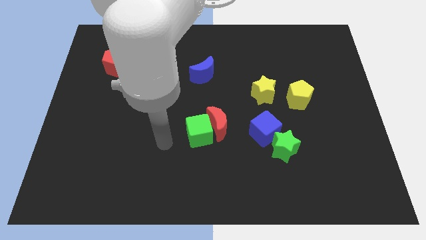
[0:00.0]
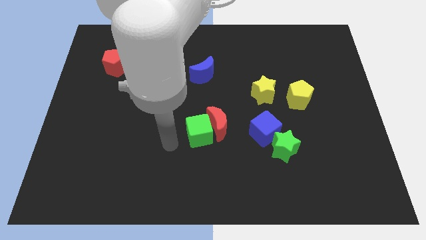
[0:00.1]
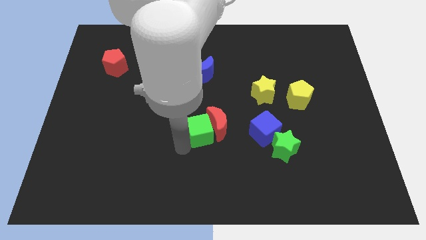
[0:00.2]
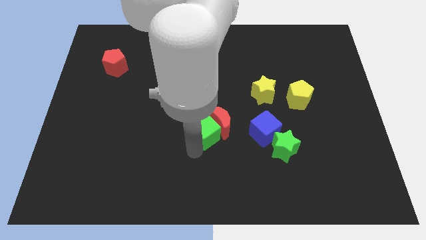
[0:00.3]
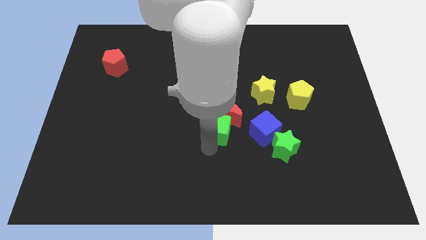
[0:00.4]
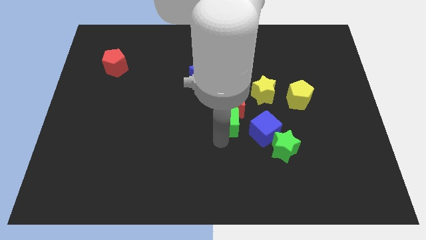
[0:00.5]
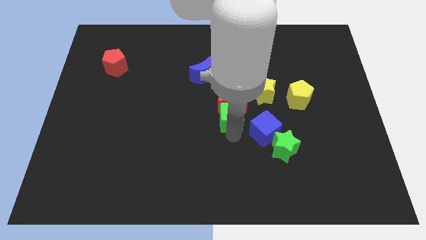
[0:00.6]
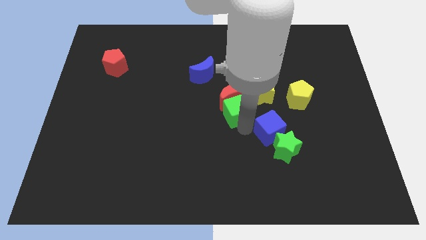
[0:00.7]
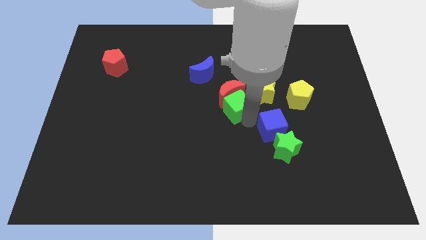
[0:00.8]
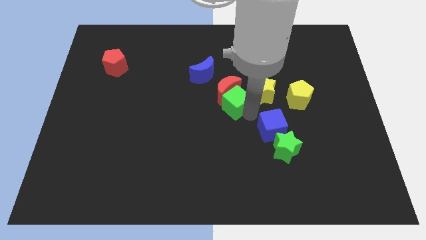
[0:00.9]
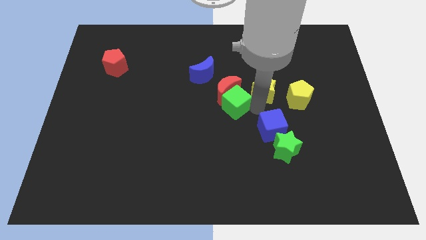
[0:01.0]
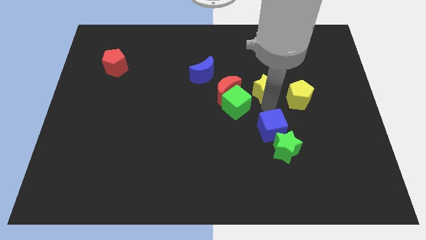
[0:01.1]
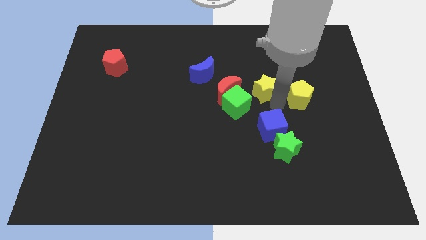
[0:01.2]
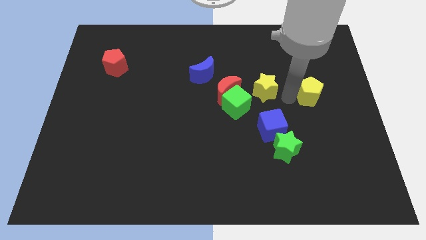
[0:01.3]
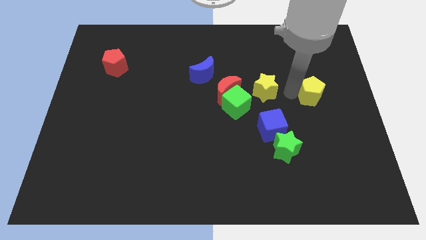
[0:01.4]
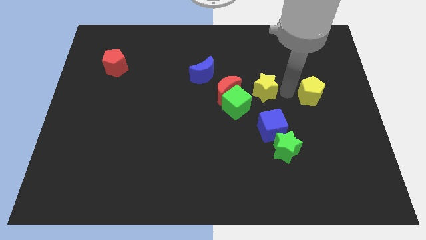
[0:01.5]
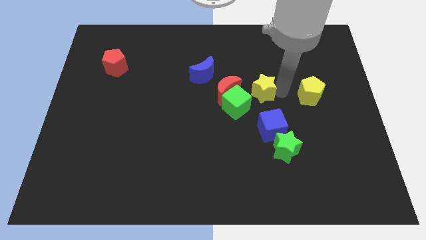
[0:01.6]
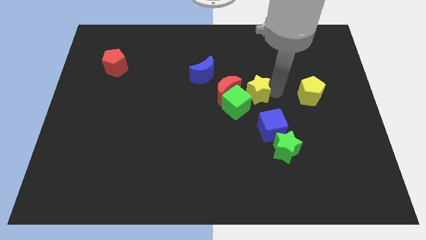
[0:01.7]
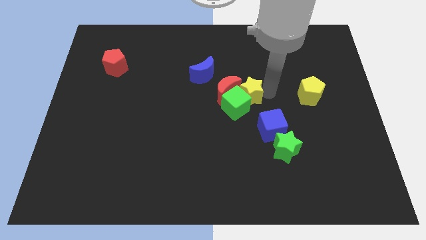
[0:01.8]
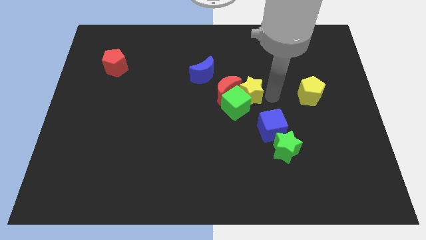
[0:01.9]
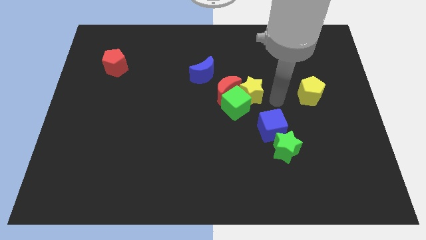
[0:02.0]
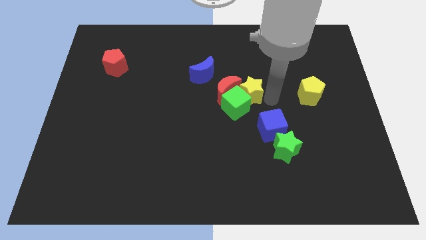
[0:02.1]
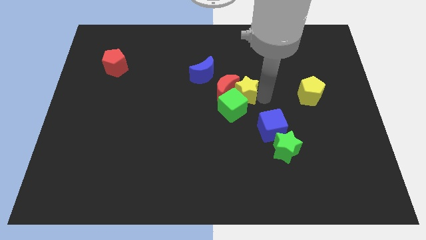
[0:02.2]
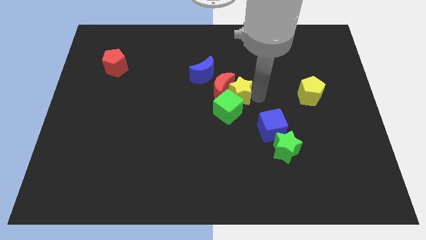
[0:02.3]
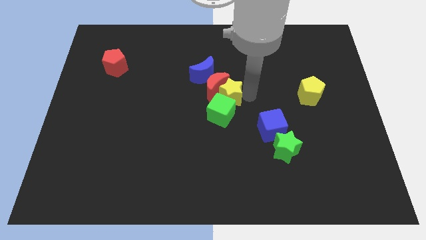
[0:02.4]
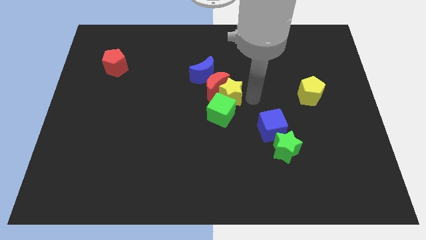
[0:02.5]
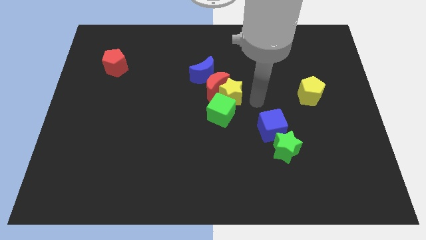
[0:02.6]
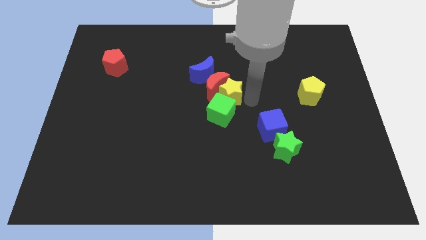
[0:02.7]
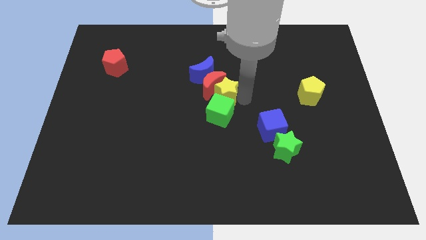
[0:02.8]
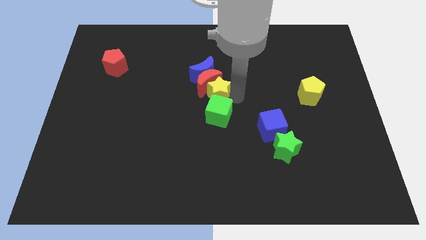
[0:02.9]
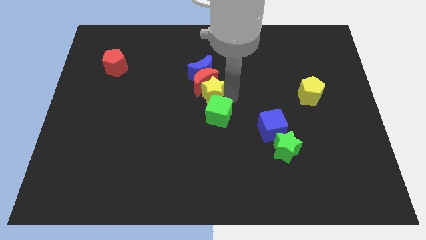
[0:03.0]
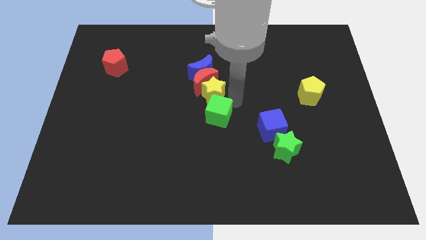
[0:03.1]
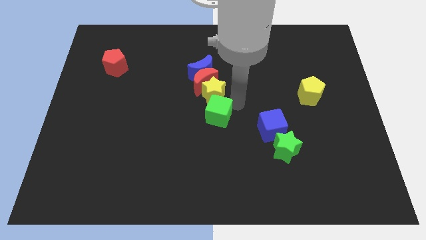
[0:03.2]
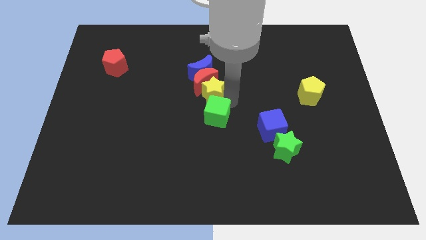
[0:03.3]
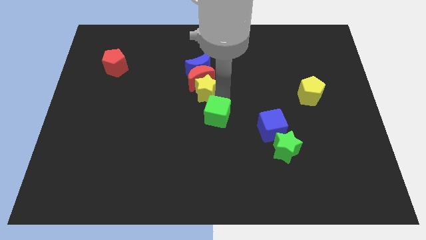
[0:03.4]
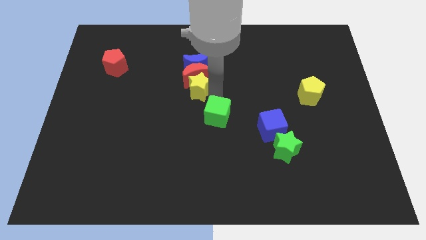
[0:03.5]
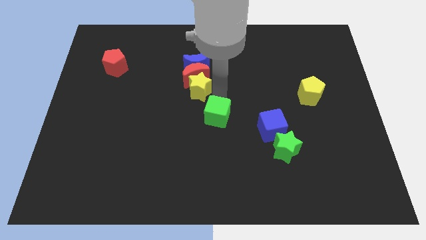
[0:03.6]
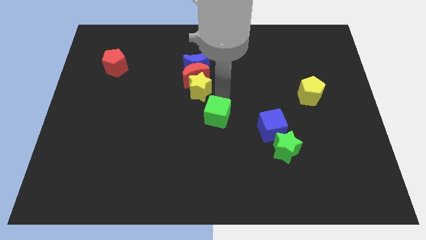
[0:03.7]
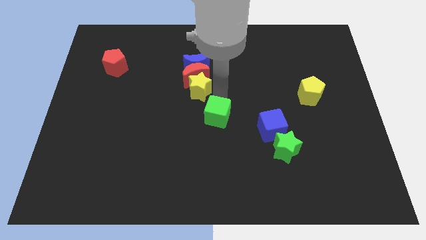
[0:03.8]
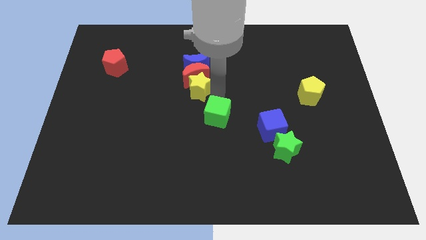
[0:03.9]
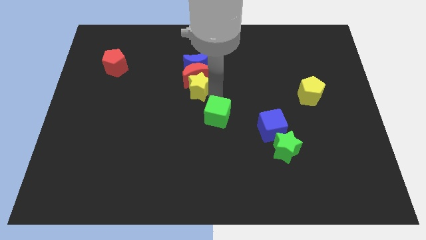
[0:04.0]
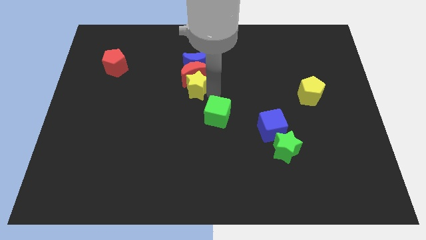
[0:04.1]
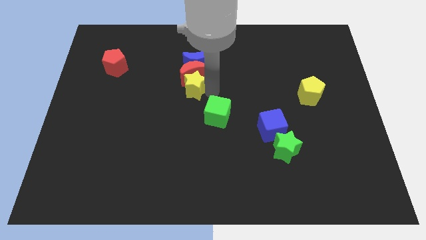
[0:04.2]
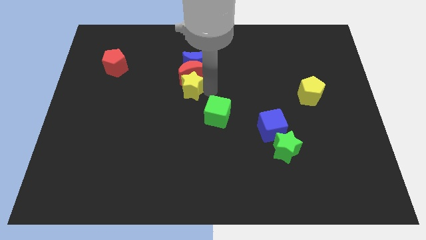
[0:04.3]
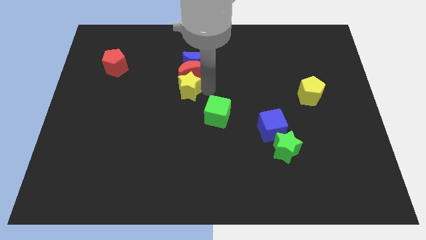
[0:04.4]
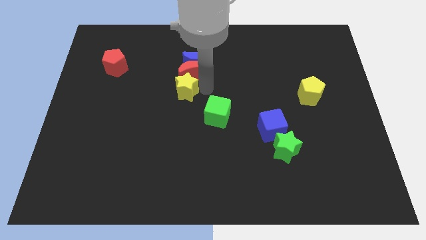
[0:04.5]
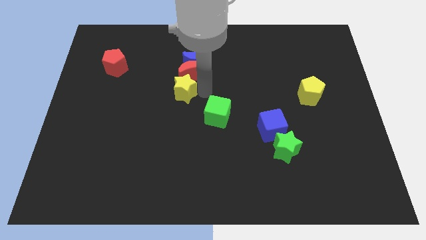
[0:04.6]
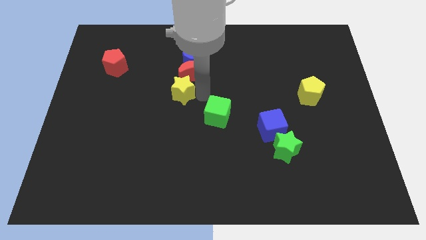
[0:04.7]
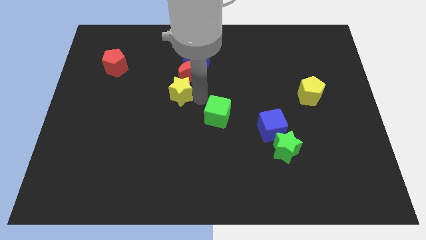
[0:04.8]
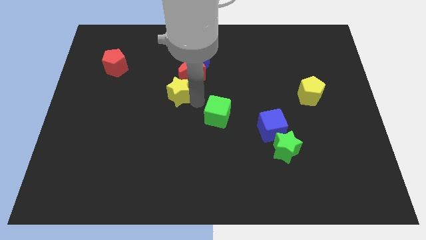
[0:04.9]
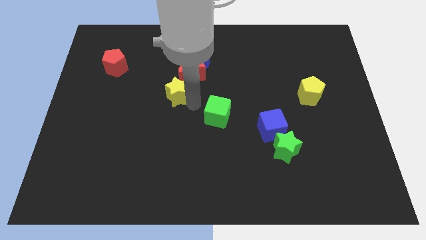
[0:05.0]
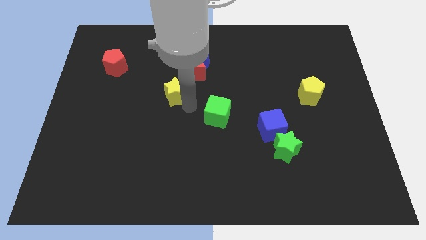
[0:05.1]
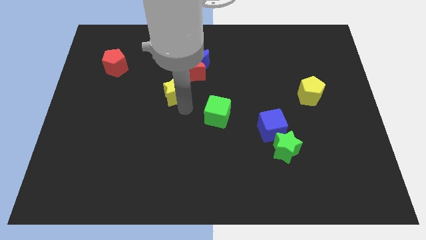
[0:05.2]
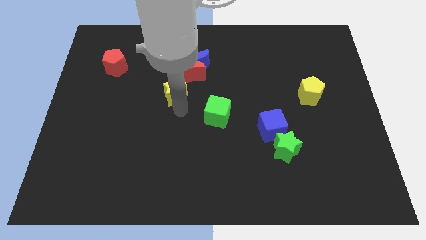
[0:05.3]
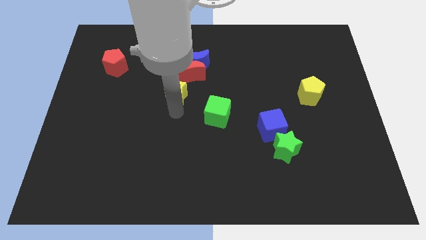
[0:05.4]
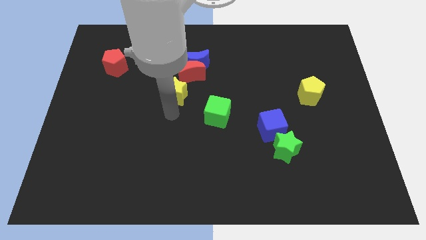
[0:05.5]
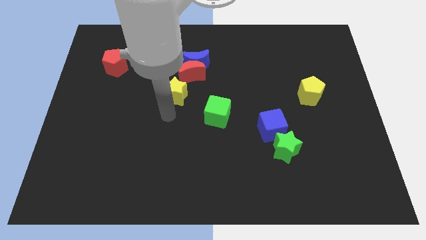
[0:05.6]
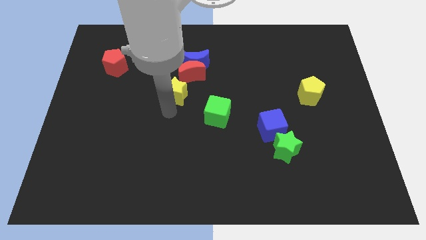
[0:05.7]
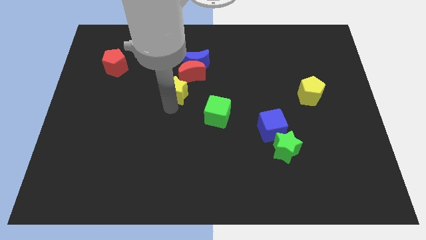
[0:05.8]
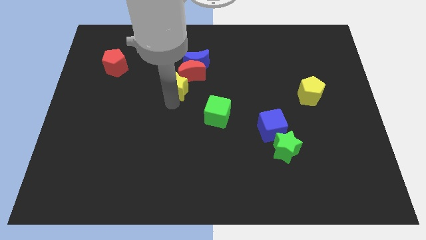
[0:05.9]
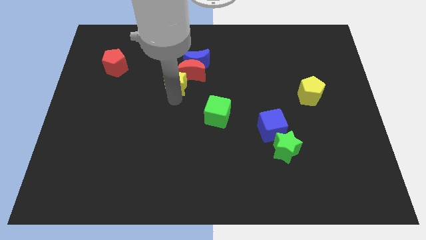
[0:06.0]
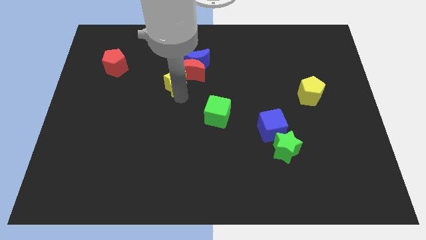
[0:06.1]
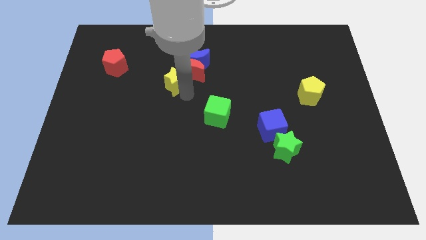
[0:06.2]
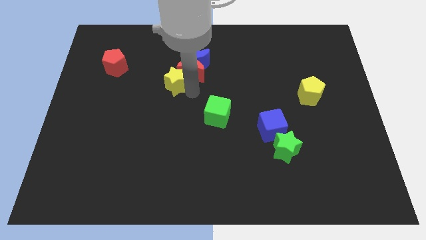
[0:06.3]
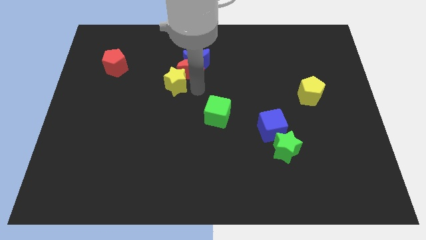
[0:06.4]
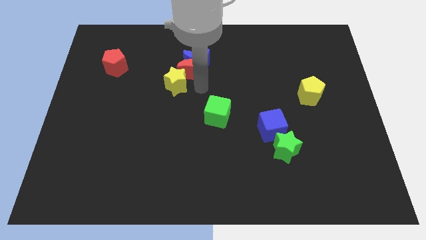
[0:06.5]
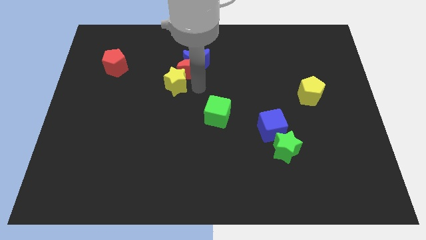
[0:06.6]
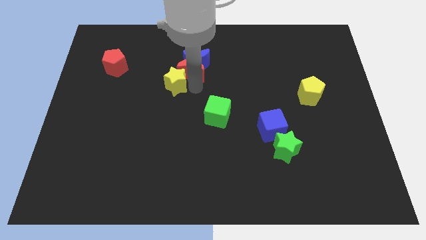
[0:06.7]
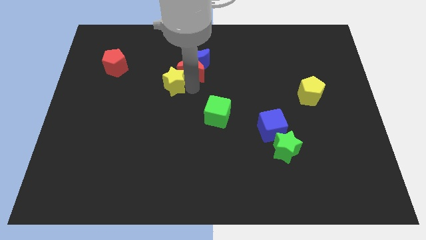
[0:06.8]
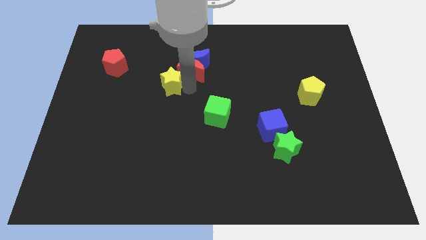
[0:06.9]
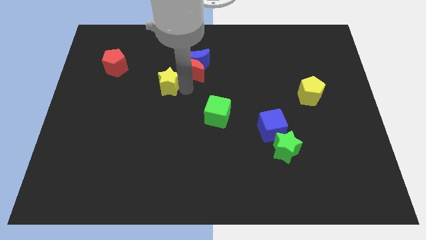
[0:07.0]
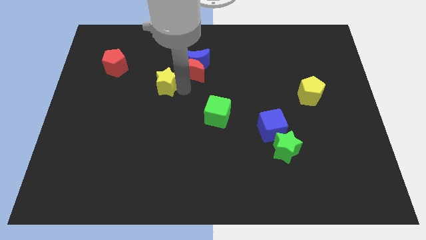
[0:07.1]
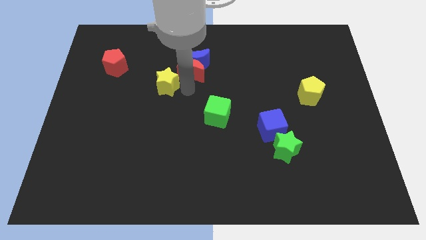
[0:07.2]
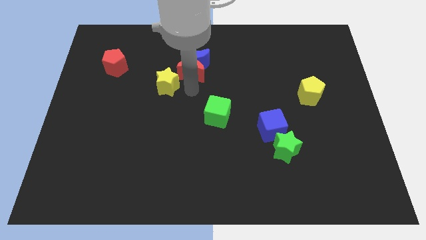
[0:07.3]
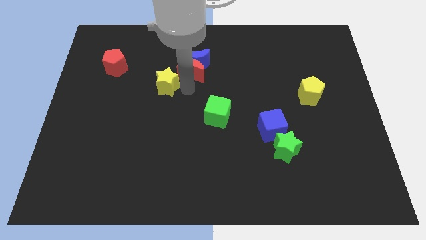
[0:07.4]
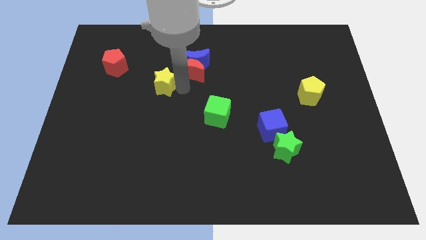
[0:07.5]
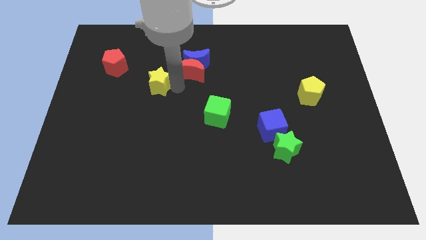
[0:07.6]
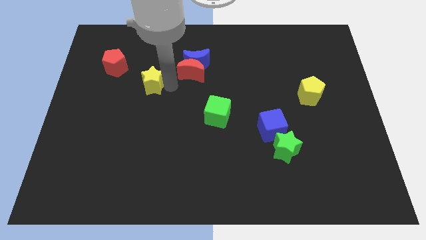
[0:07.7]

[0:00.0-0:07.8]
push the yellow star diagonally down and to the right of the red pentagon
